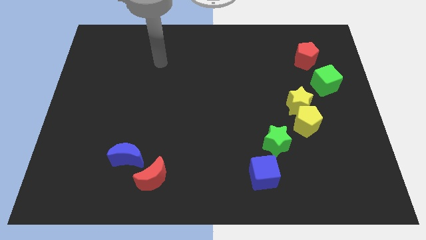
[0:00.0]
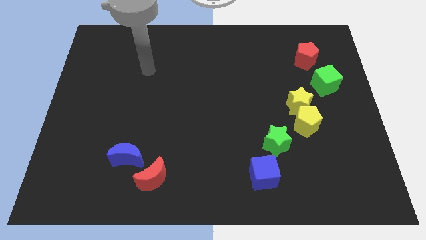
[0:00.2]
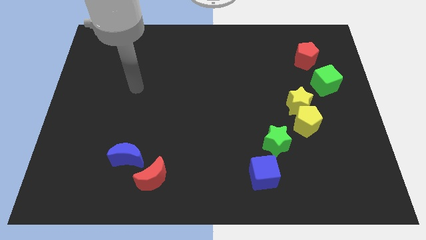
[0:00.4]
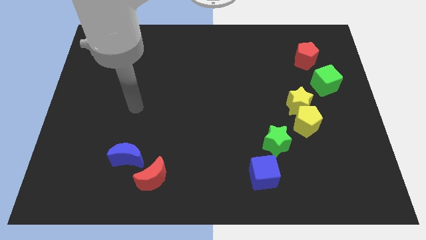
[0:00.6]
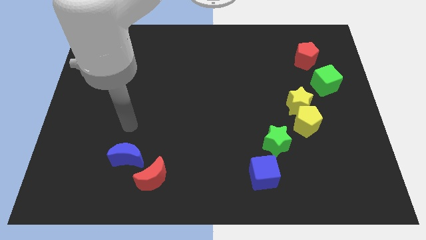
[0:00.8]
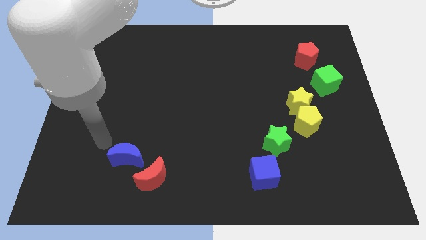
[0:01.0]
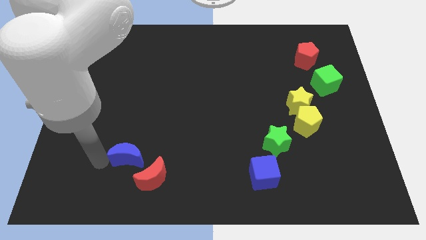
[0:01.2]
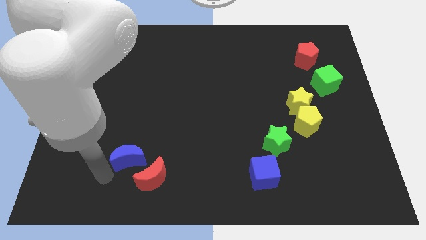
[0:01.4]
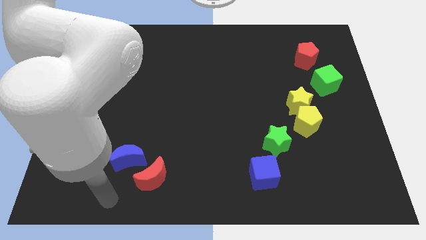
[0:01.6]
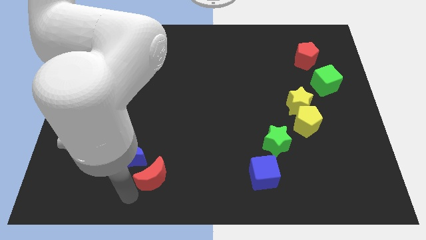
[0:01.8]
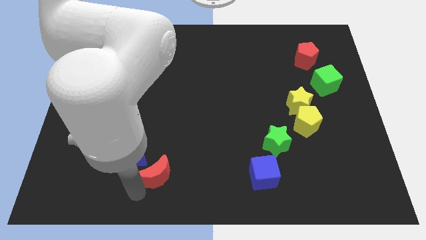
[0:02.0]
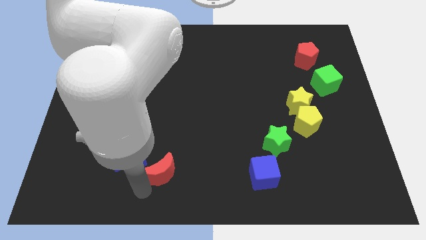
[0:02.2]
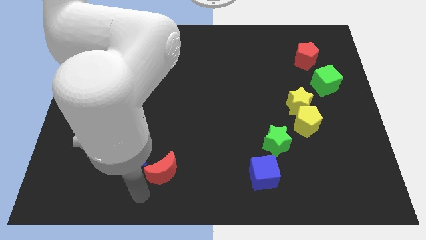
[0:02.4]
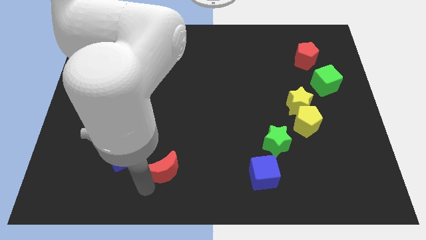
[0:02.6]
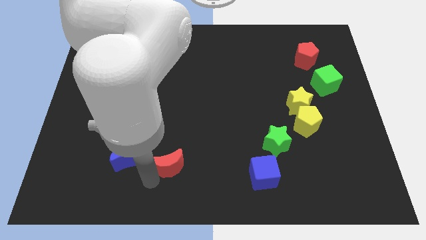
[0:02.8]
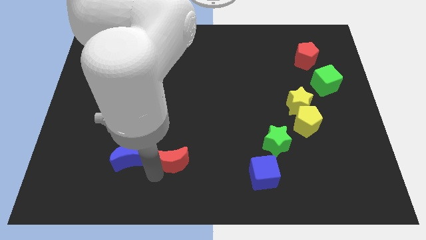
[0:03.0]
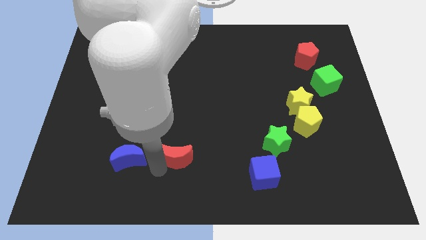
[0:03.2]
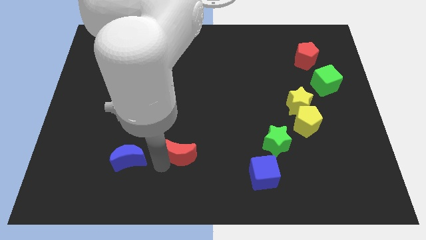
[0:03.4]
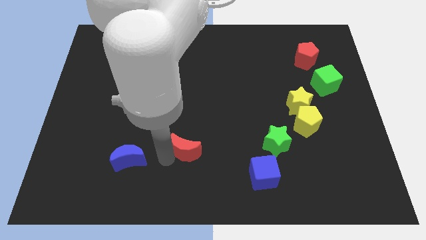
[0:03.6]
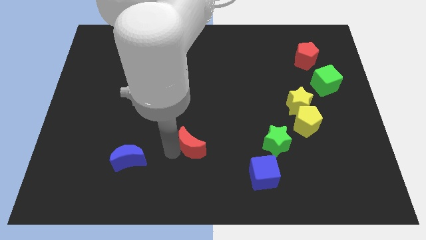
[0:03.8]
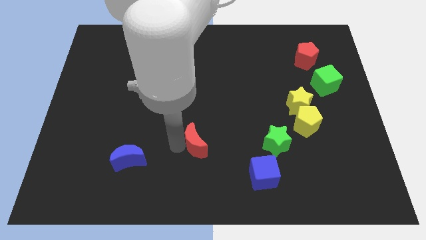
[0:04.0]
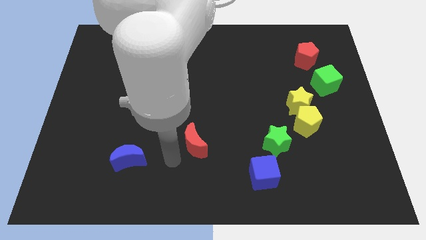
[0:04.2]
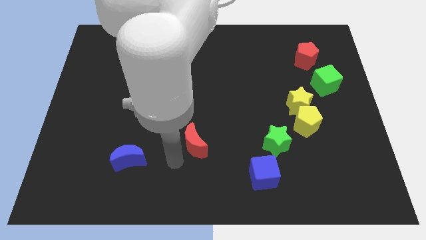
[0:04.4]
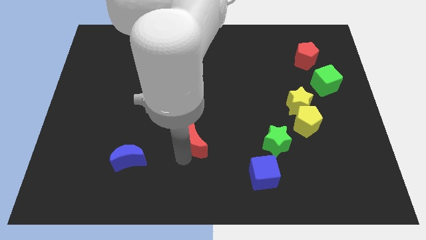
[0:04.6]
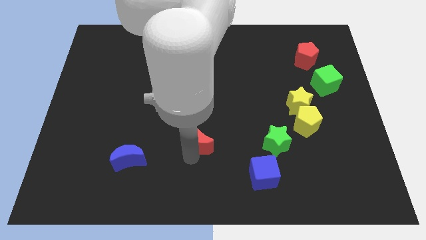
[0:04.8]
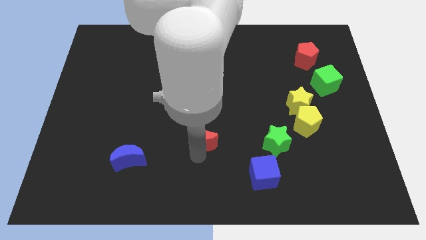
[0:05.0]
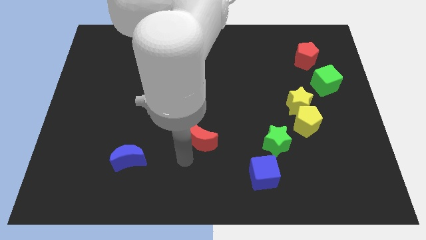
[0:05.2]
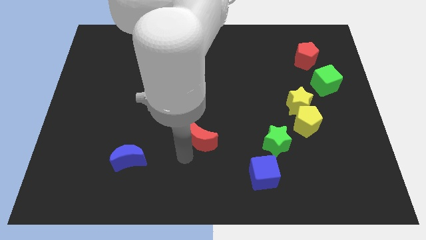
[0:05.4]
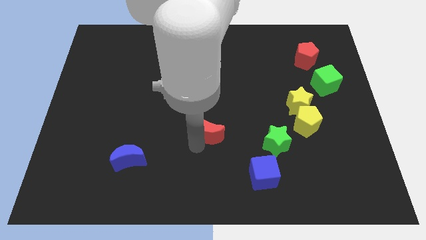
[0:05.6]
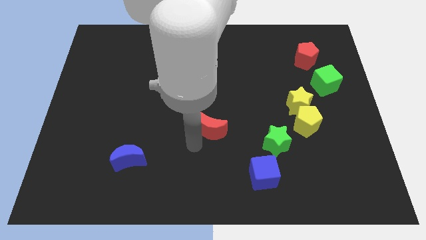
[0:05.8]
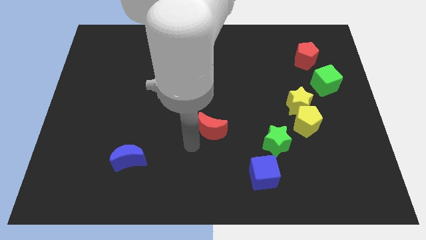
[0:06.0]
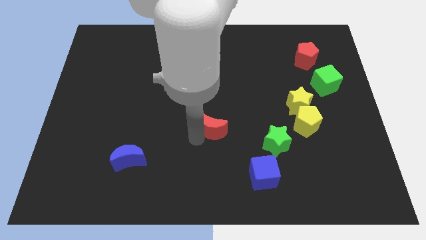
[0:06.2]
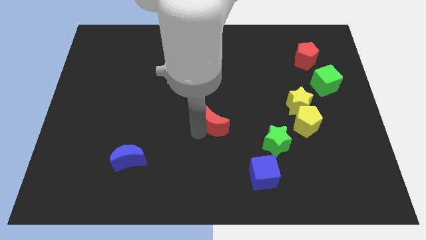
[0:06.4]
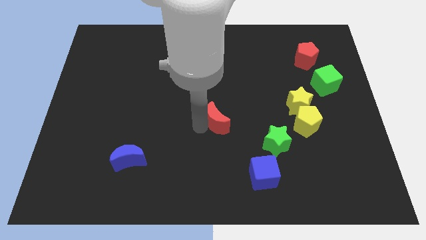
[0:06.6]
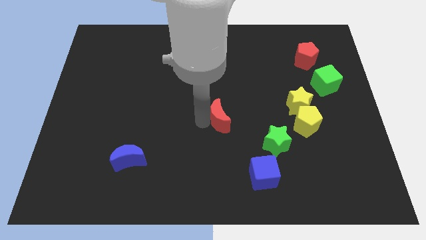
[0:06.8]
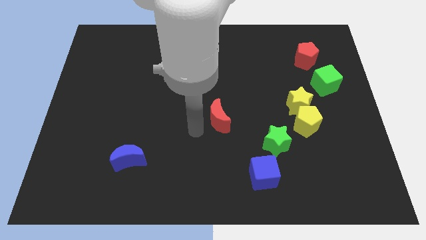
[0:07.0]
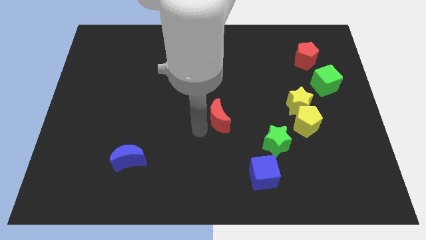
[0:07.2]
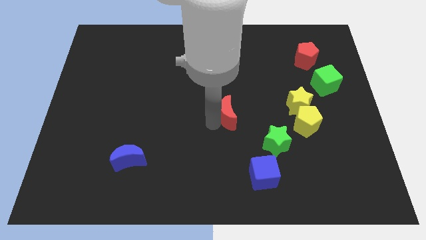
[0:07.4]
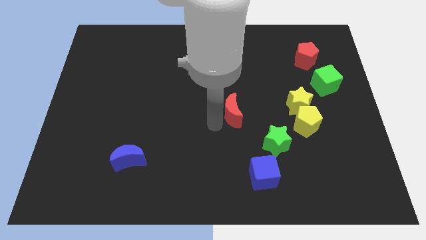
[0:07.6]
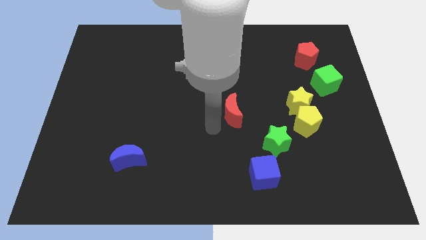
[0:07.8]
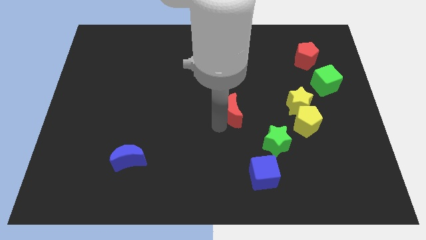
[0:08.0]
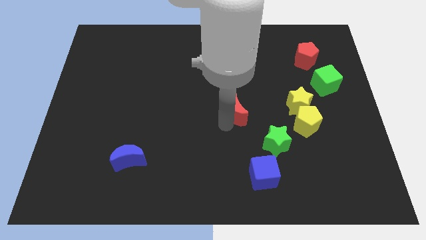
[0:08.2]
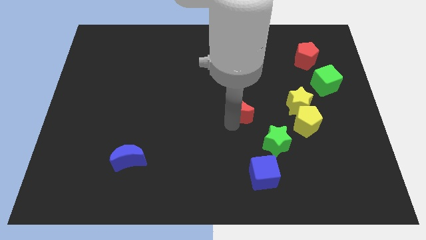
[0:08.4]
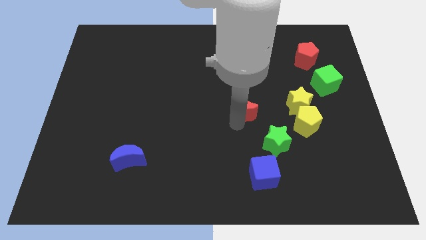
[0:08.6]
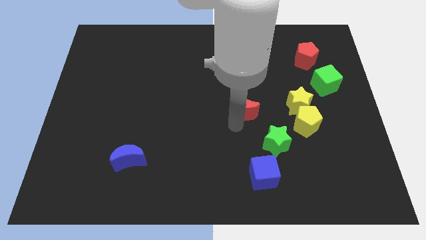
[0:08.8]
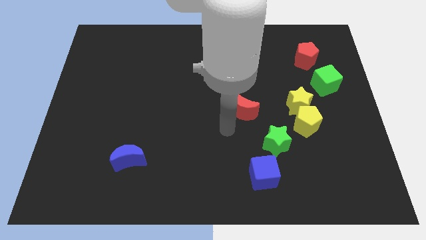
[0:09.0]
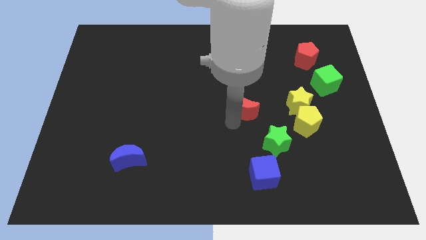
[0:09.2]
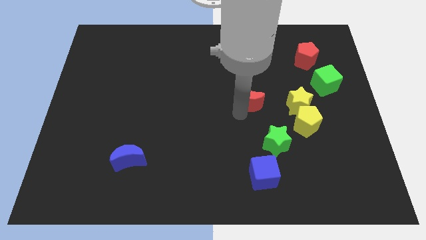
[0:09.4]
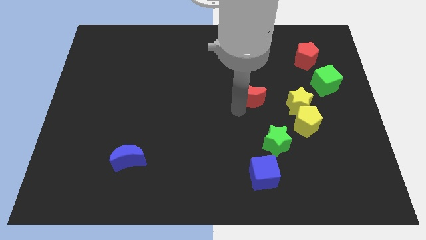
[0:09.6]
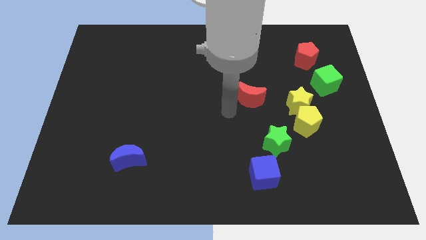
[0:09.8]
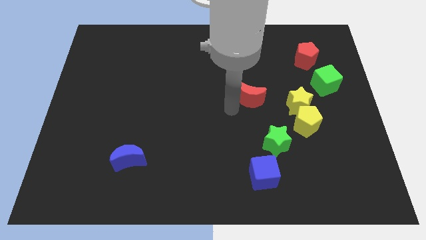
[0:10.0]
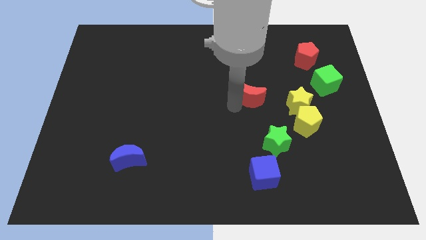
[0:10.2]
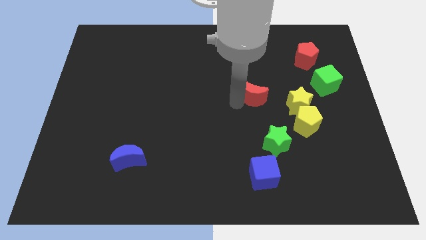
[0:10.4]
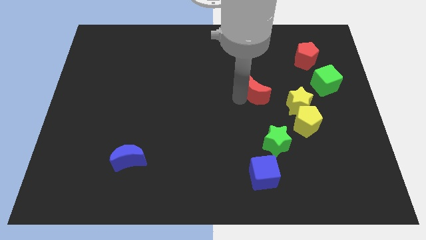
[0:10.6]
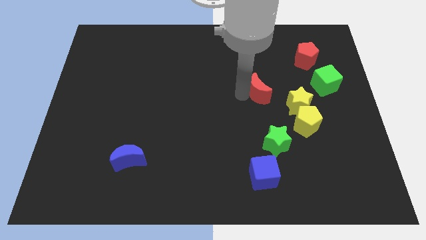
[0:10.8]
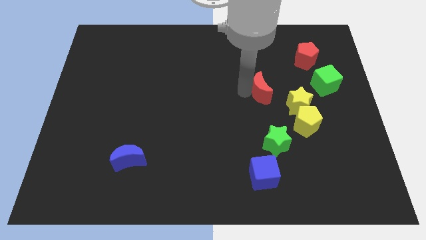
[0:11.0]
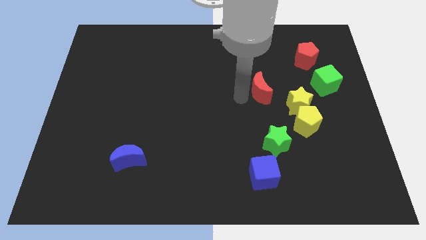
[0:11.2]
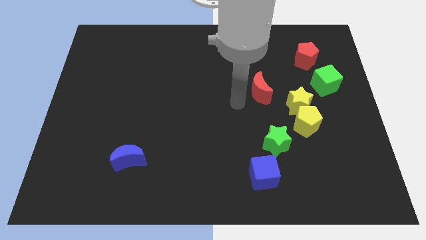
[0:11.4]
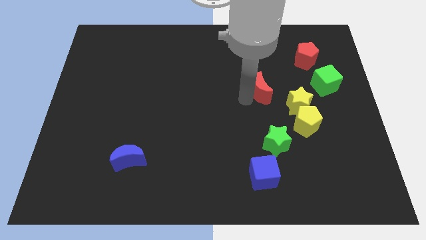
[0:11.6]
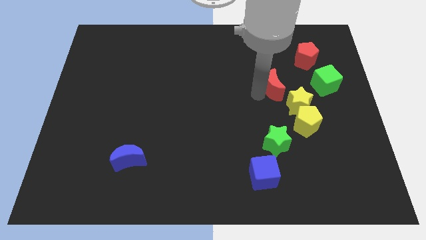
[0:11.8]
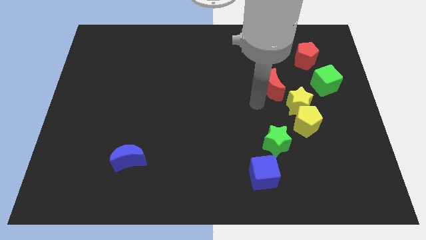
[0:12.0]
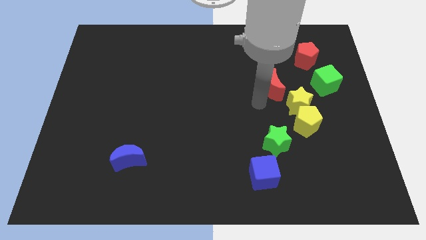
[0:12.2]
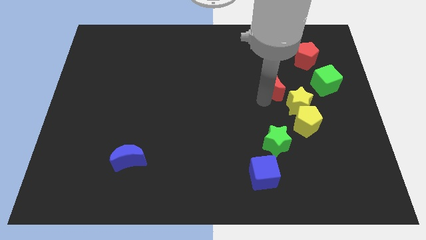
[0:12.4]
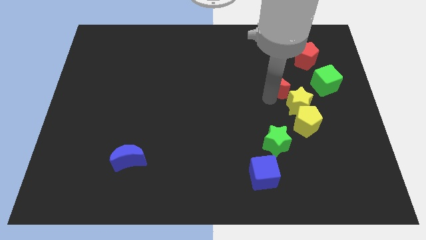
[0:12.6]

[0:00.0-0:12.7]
put the red moon diagonally down and to the left of the red pentagon

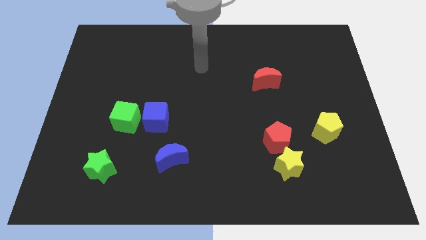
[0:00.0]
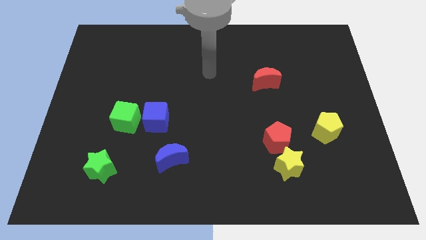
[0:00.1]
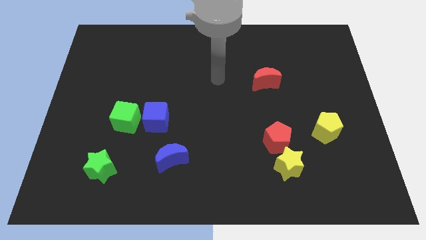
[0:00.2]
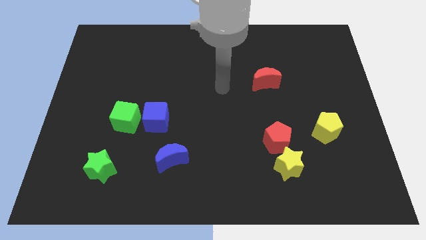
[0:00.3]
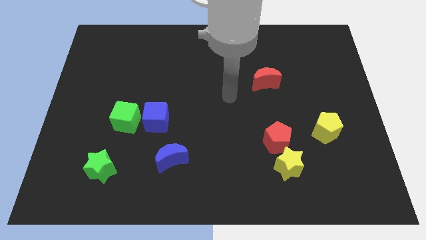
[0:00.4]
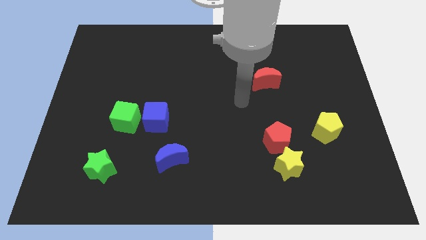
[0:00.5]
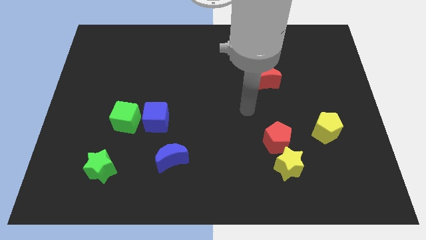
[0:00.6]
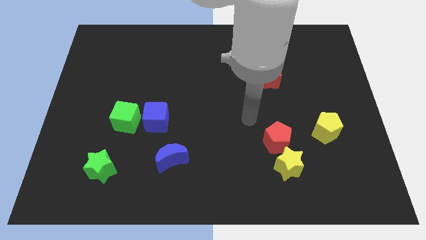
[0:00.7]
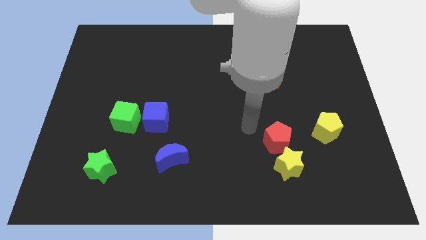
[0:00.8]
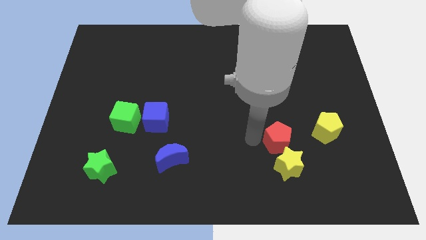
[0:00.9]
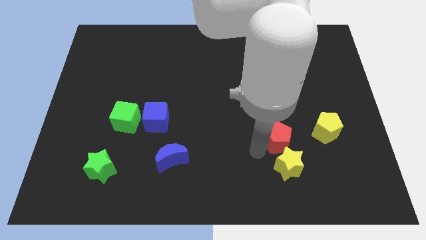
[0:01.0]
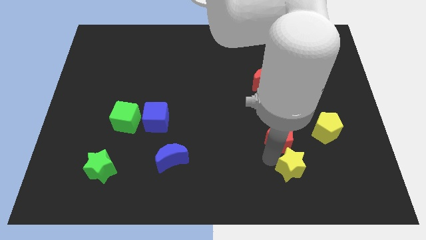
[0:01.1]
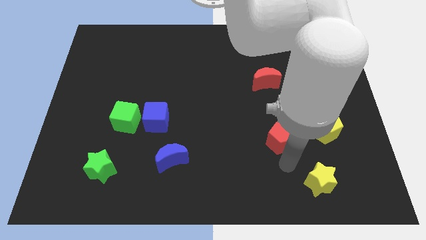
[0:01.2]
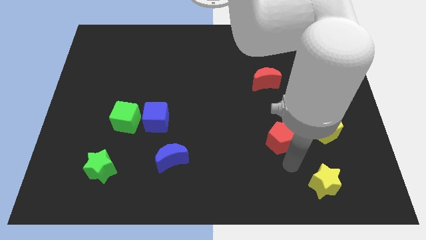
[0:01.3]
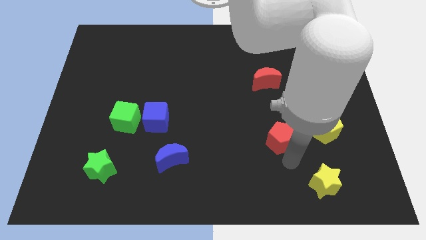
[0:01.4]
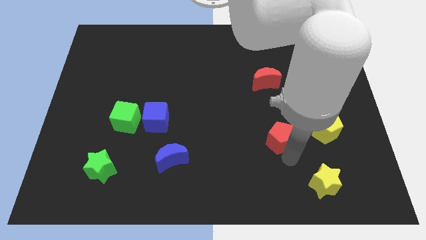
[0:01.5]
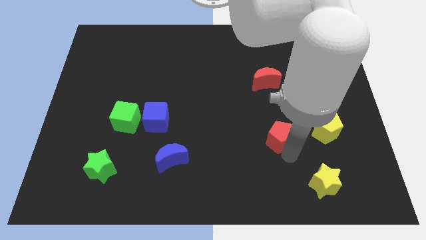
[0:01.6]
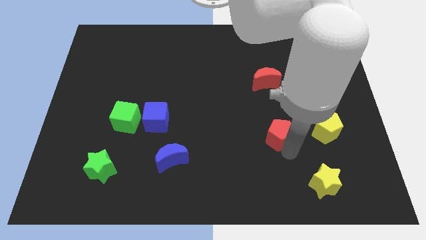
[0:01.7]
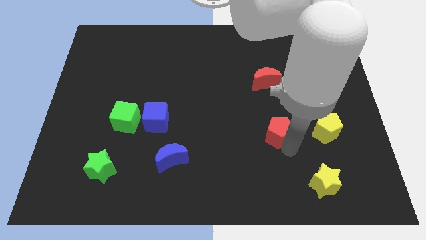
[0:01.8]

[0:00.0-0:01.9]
put the red pentagon below the red moon
